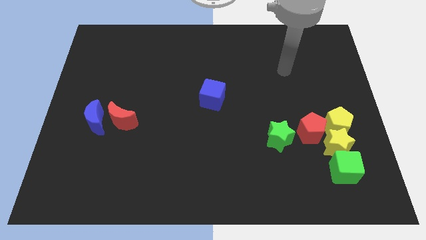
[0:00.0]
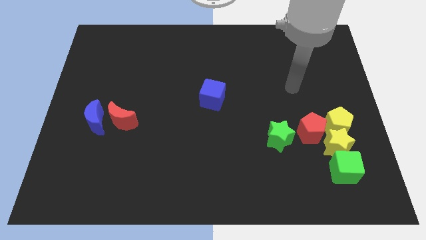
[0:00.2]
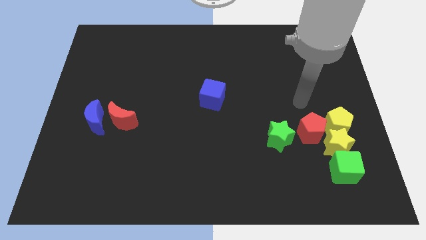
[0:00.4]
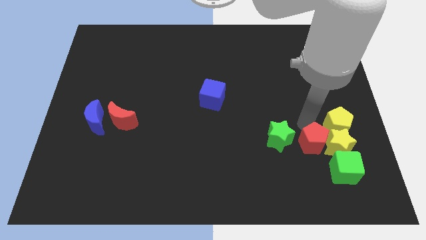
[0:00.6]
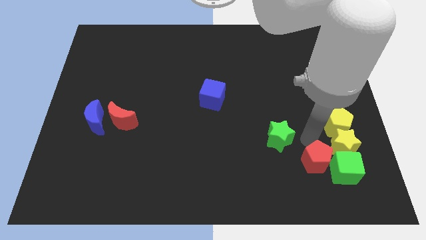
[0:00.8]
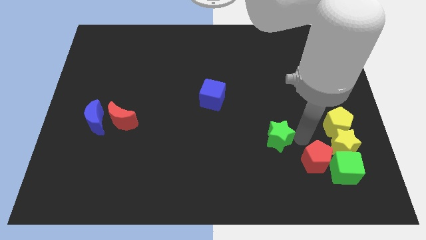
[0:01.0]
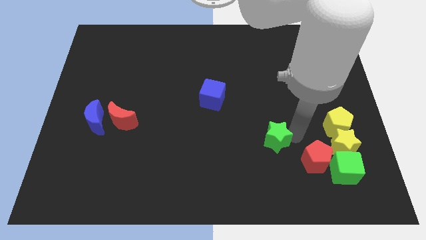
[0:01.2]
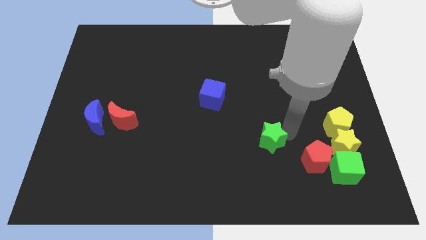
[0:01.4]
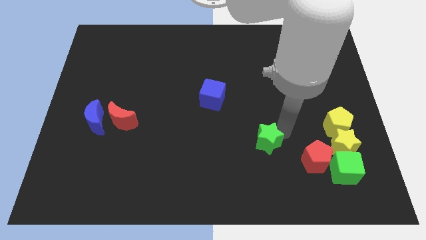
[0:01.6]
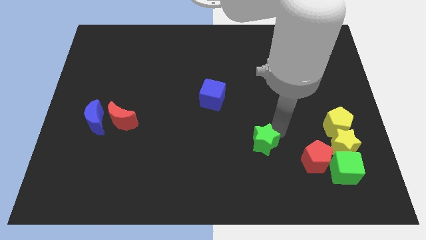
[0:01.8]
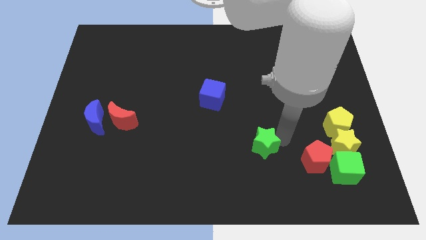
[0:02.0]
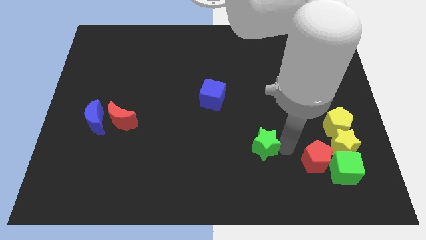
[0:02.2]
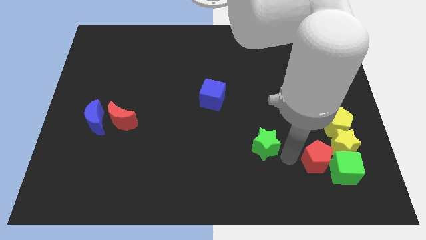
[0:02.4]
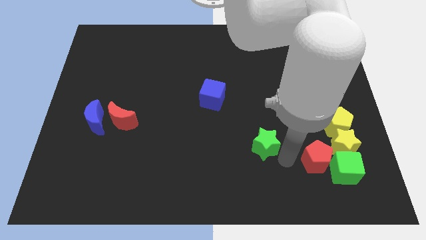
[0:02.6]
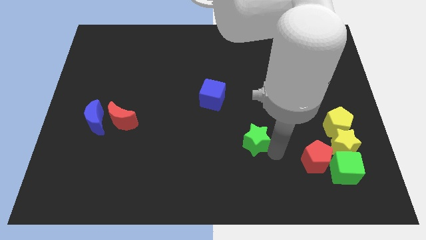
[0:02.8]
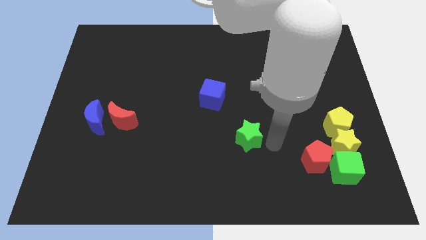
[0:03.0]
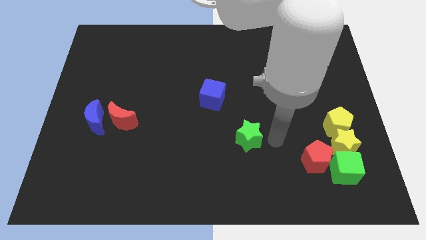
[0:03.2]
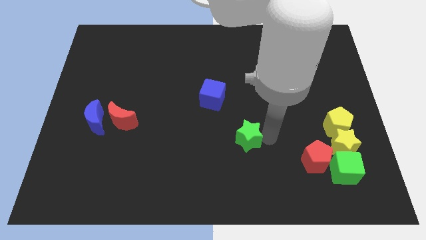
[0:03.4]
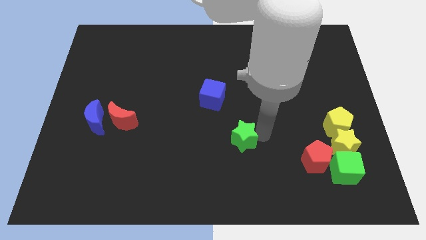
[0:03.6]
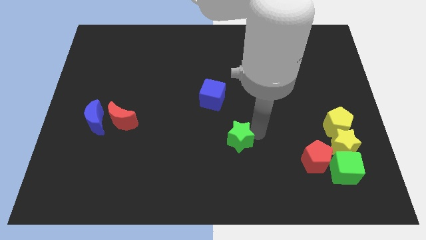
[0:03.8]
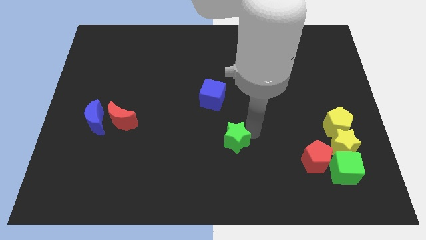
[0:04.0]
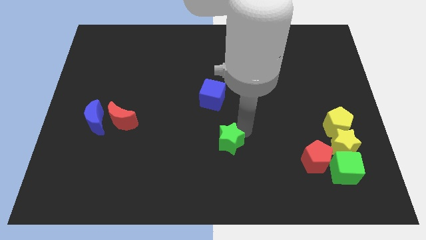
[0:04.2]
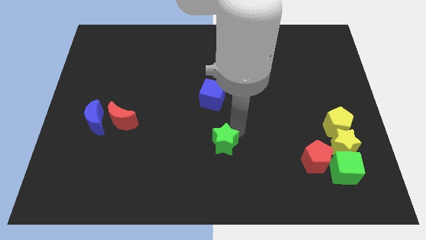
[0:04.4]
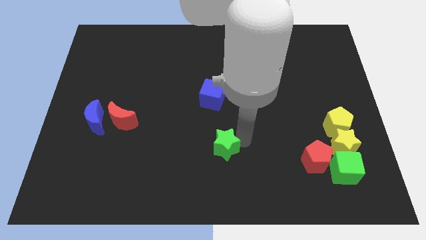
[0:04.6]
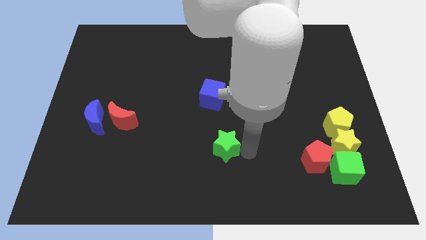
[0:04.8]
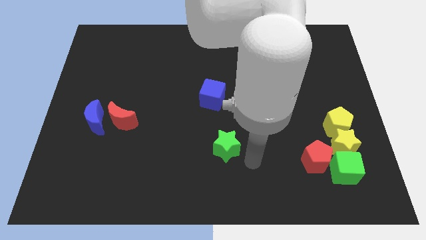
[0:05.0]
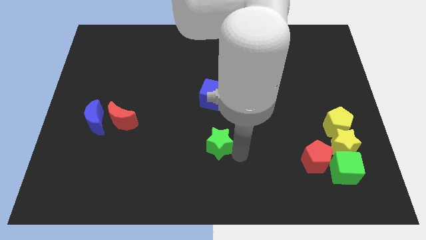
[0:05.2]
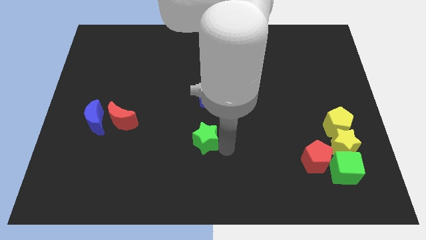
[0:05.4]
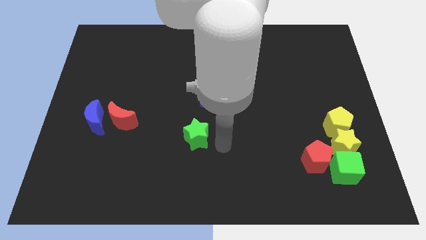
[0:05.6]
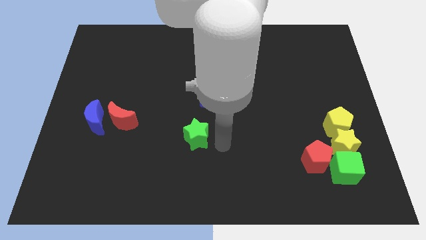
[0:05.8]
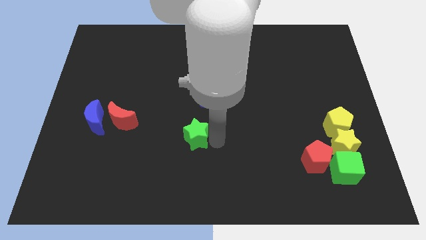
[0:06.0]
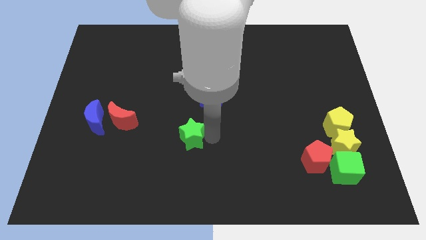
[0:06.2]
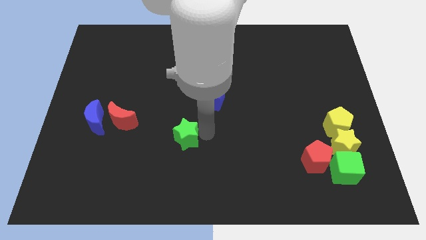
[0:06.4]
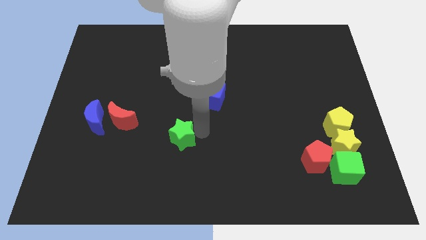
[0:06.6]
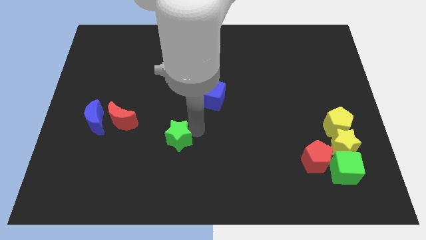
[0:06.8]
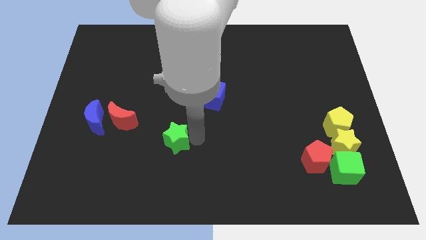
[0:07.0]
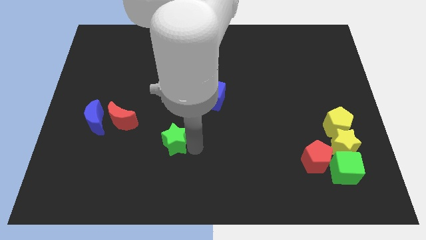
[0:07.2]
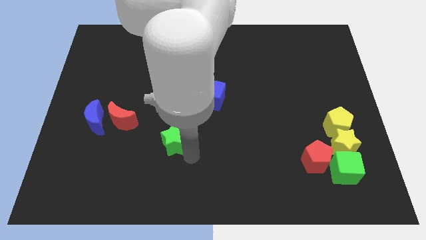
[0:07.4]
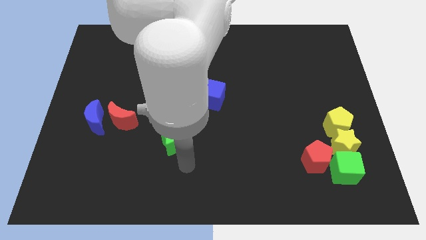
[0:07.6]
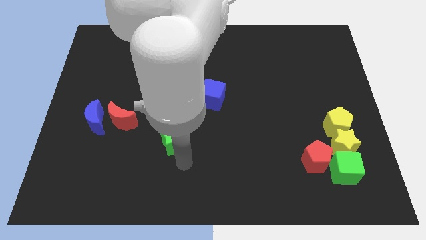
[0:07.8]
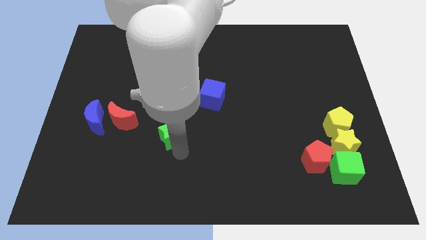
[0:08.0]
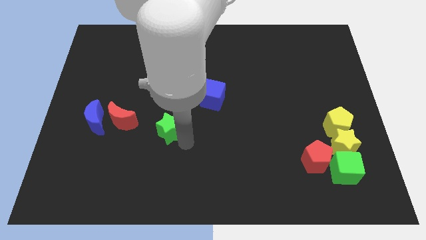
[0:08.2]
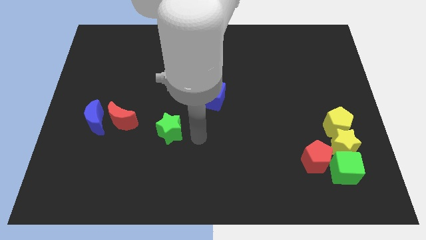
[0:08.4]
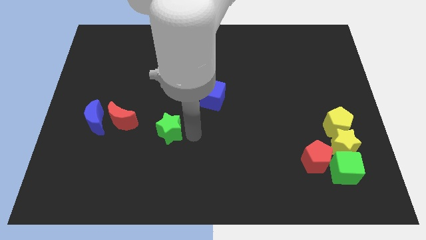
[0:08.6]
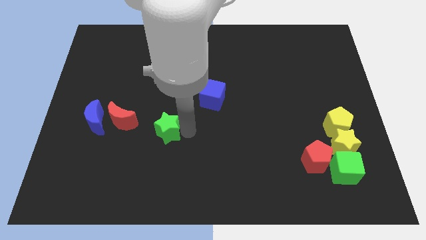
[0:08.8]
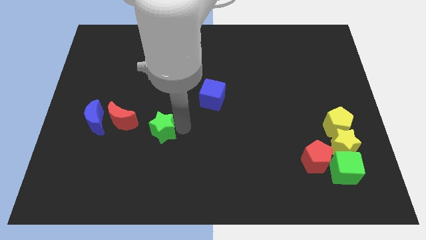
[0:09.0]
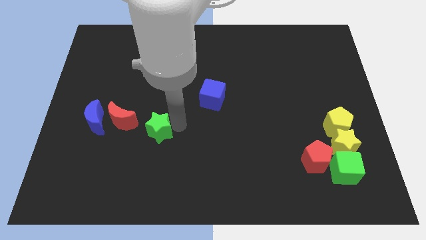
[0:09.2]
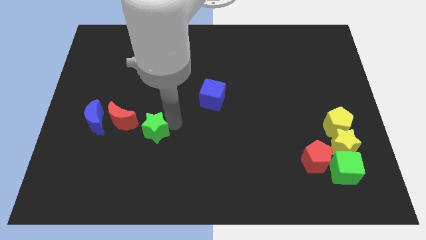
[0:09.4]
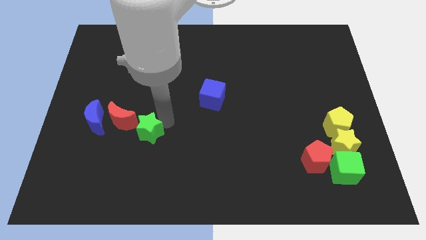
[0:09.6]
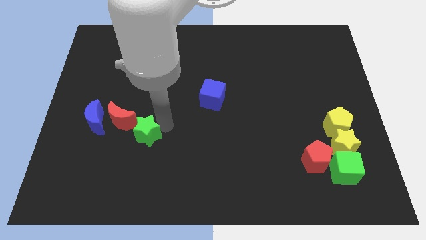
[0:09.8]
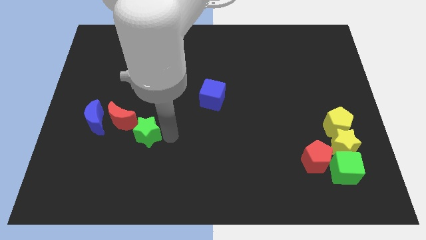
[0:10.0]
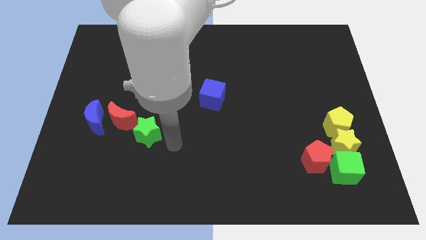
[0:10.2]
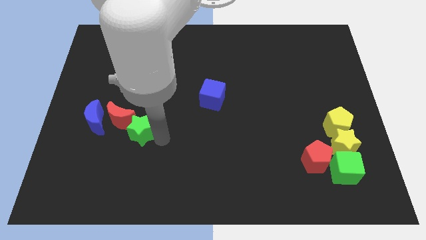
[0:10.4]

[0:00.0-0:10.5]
slide the green star close to the red moon

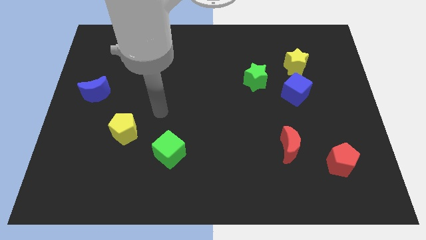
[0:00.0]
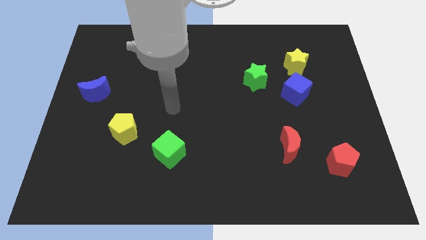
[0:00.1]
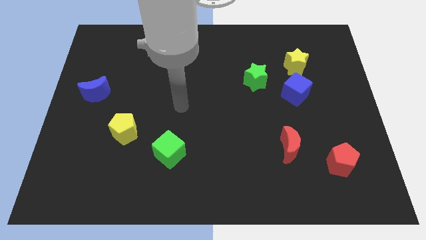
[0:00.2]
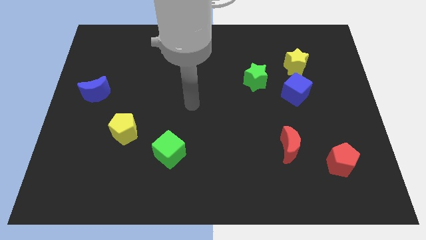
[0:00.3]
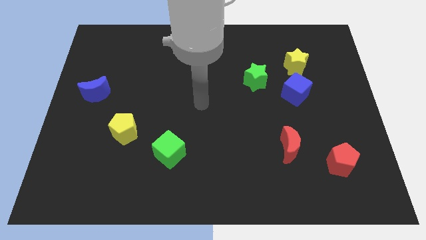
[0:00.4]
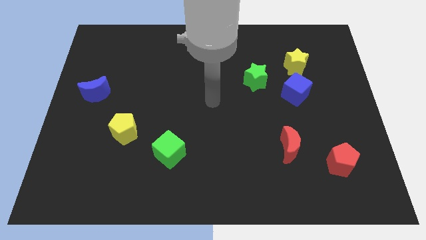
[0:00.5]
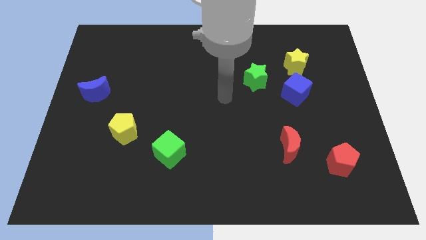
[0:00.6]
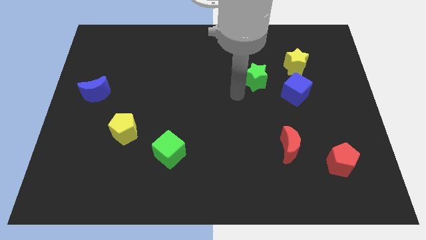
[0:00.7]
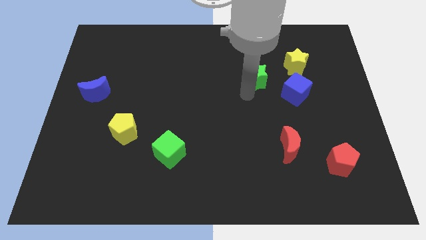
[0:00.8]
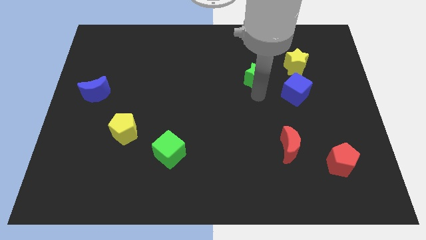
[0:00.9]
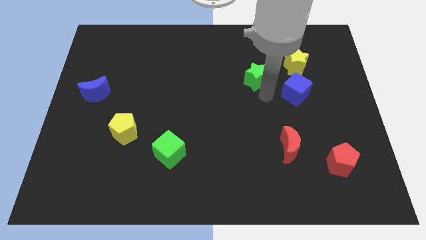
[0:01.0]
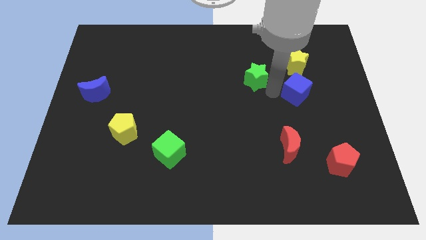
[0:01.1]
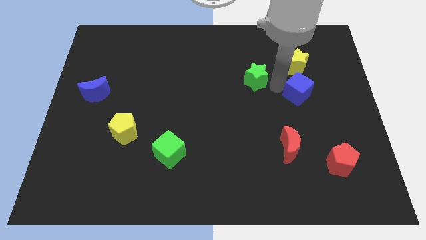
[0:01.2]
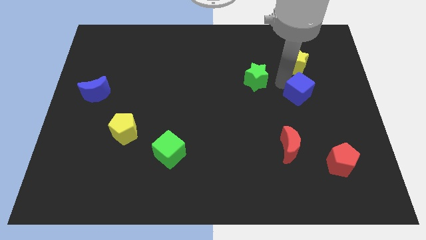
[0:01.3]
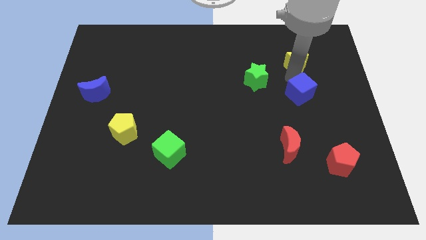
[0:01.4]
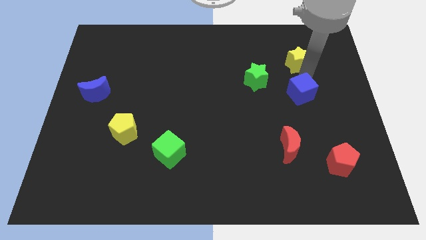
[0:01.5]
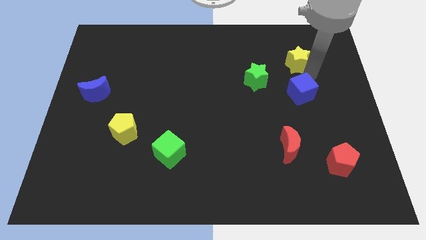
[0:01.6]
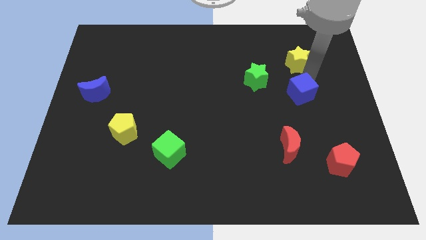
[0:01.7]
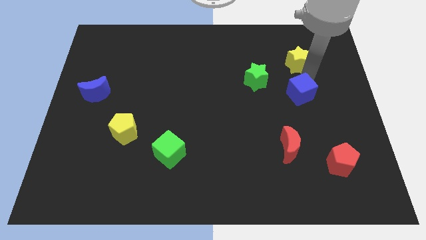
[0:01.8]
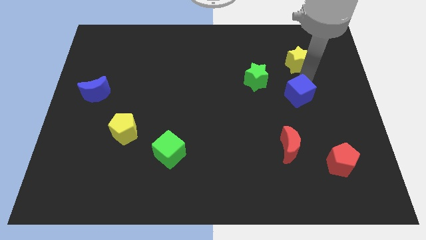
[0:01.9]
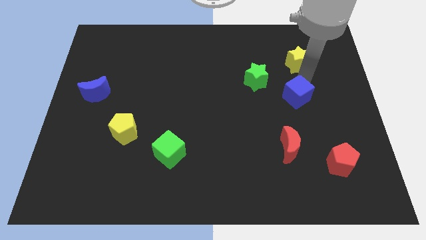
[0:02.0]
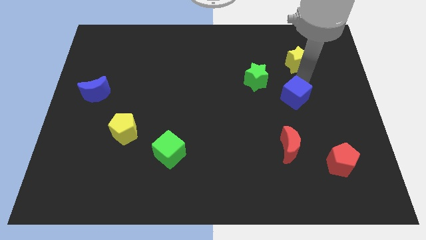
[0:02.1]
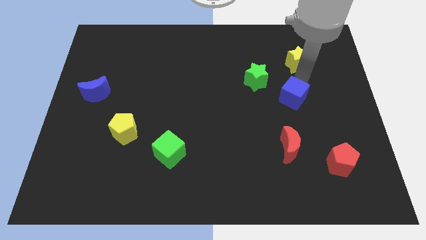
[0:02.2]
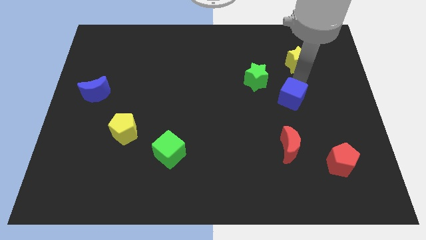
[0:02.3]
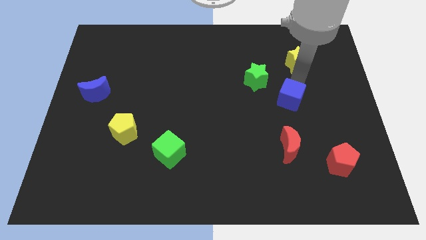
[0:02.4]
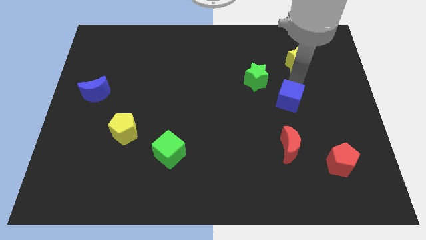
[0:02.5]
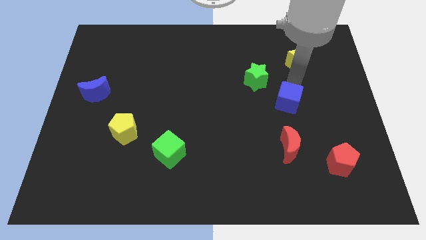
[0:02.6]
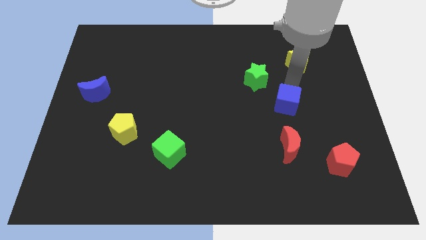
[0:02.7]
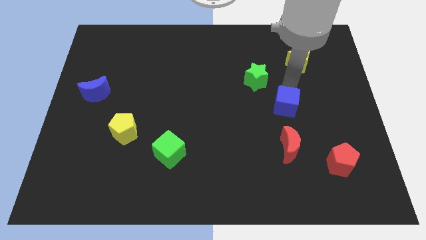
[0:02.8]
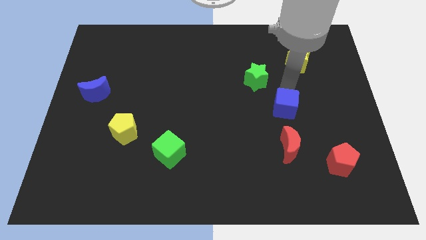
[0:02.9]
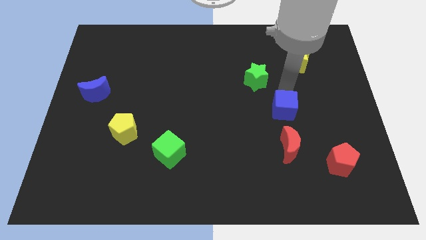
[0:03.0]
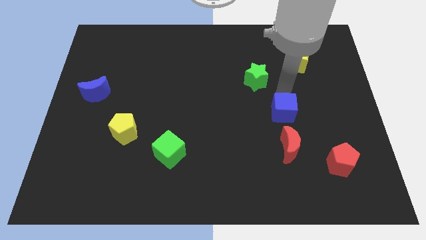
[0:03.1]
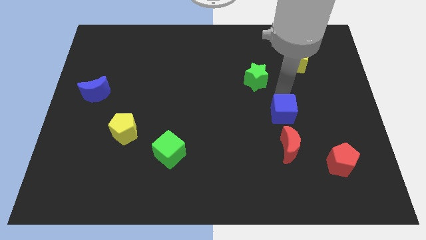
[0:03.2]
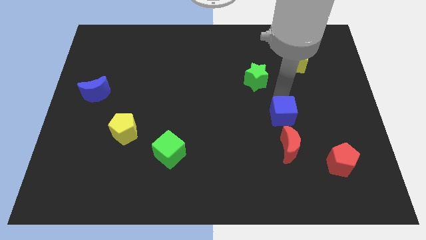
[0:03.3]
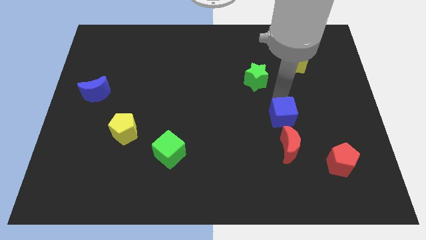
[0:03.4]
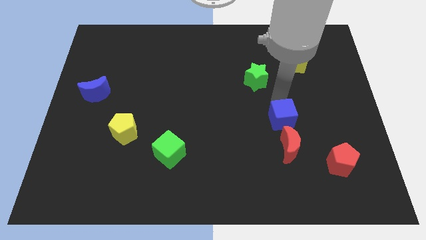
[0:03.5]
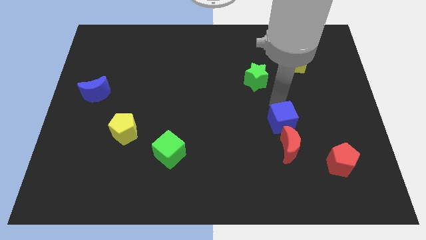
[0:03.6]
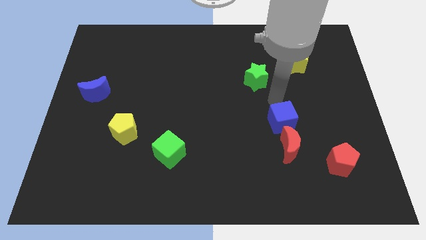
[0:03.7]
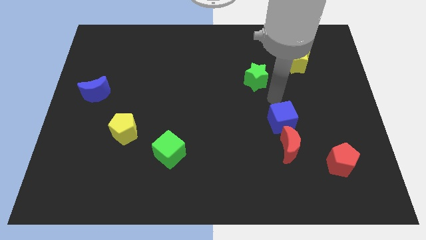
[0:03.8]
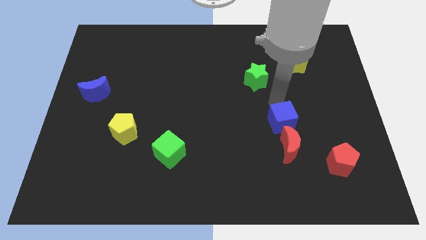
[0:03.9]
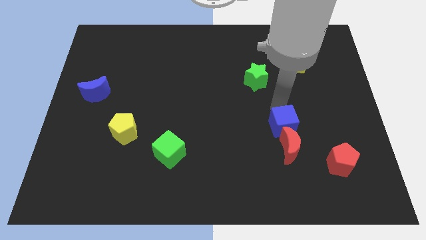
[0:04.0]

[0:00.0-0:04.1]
put the blue cube to the red moon
